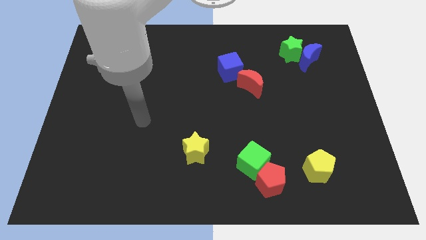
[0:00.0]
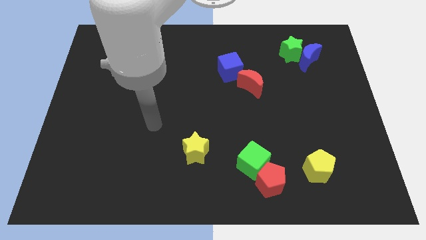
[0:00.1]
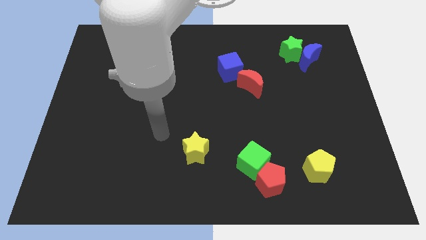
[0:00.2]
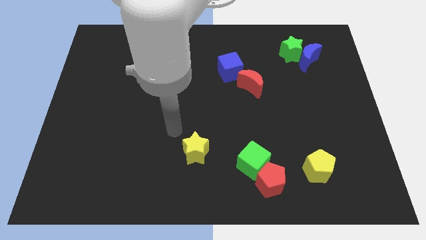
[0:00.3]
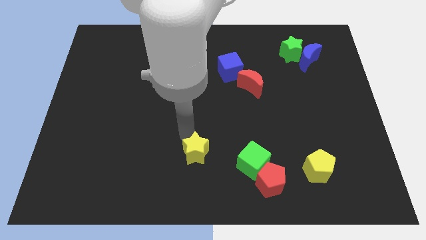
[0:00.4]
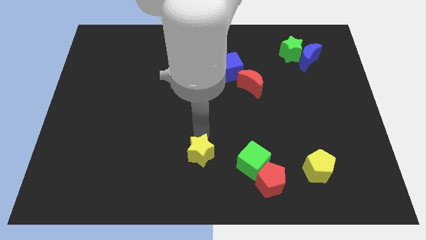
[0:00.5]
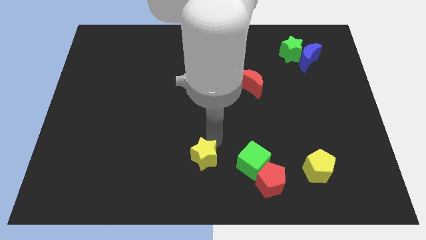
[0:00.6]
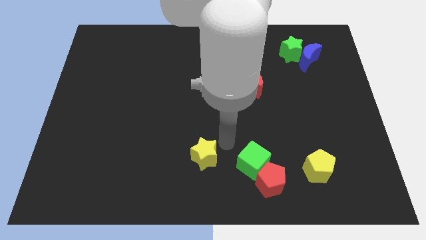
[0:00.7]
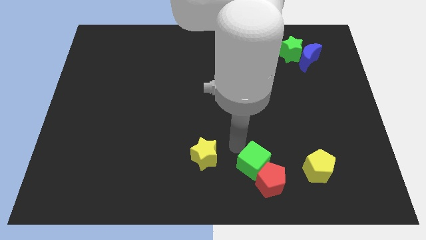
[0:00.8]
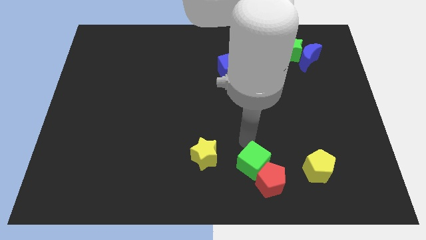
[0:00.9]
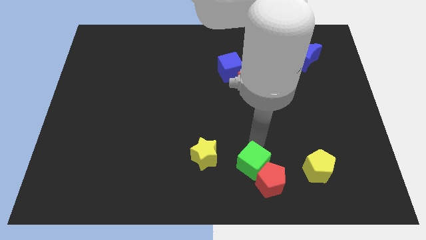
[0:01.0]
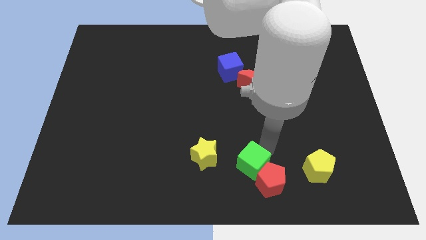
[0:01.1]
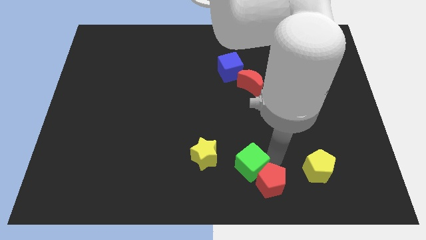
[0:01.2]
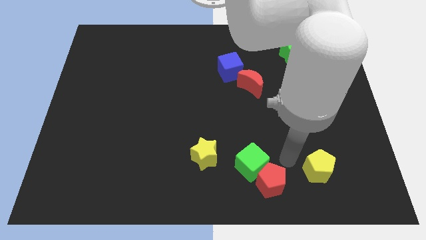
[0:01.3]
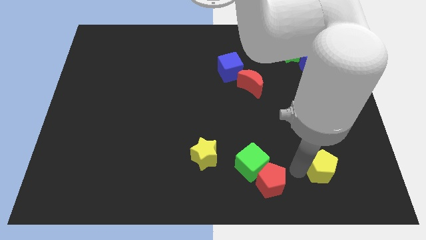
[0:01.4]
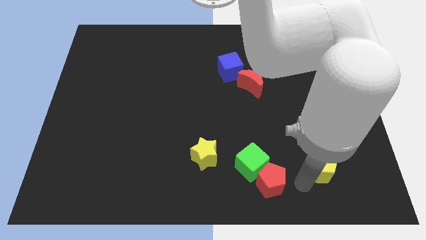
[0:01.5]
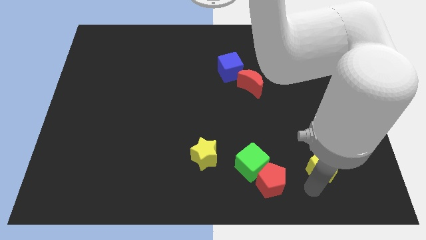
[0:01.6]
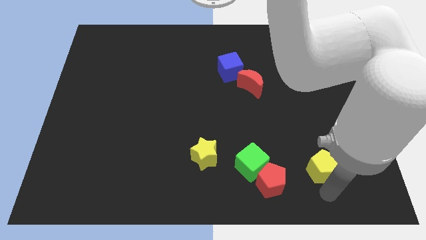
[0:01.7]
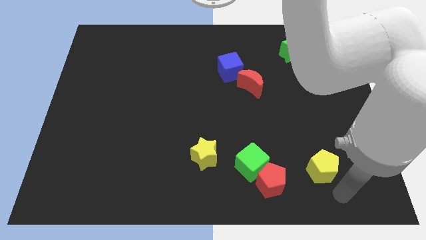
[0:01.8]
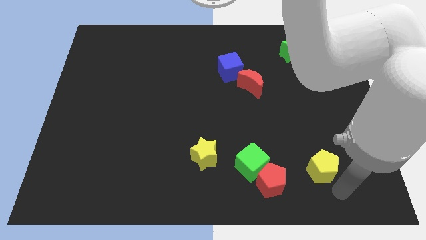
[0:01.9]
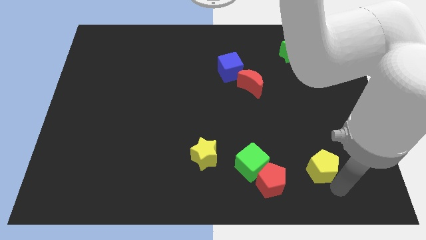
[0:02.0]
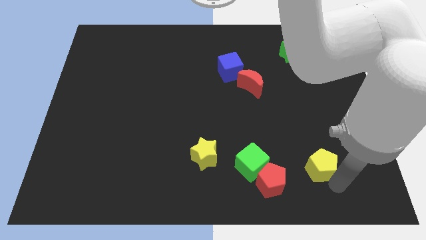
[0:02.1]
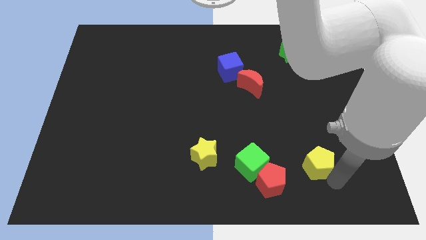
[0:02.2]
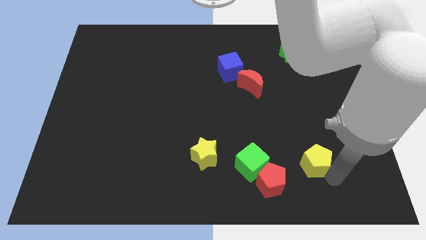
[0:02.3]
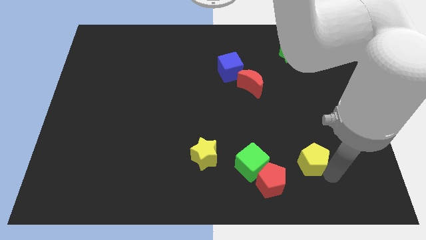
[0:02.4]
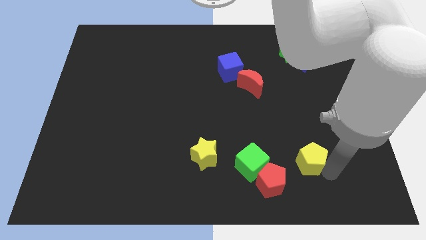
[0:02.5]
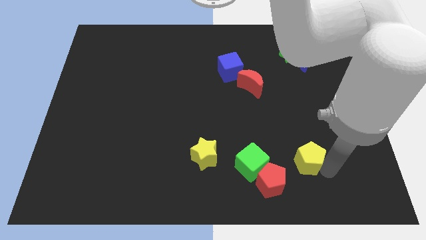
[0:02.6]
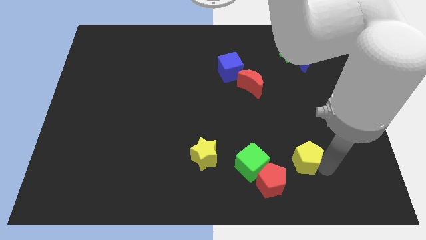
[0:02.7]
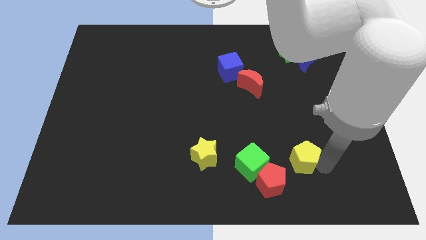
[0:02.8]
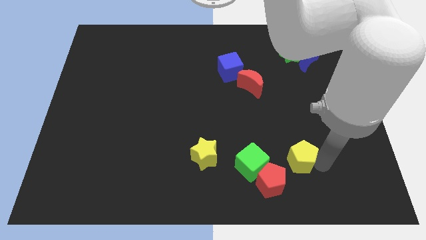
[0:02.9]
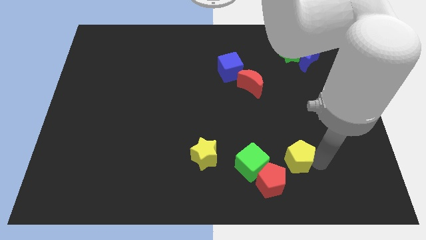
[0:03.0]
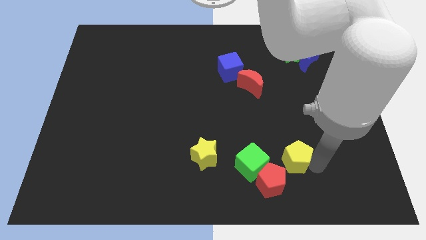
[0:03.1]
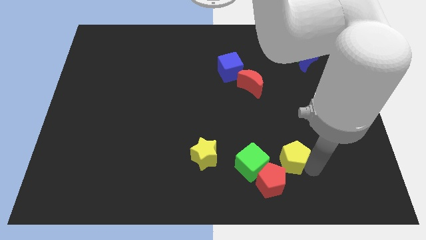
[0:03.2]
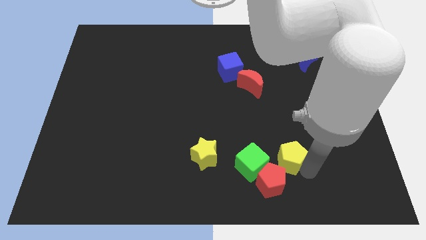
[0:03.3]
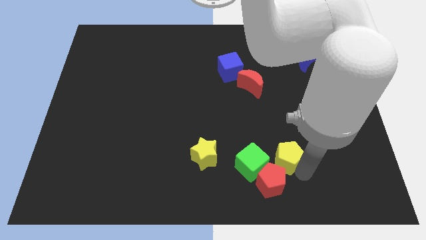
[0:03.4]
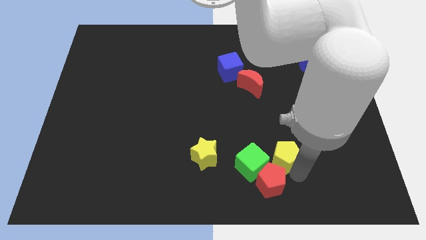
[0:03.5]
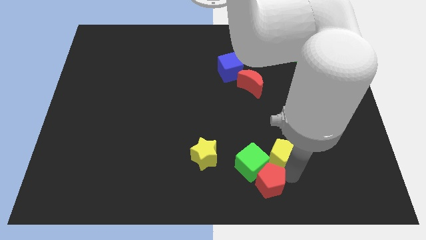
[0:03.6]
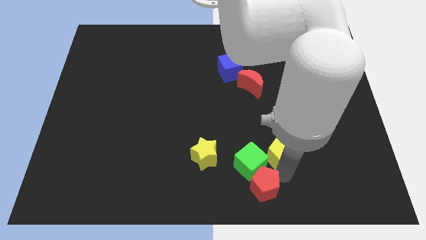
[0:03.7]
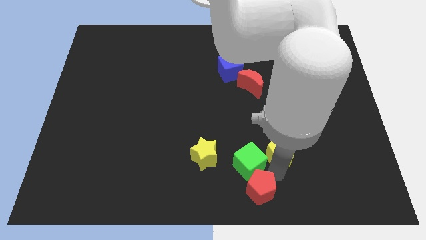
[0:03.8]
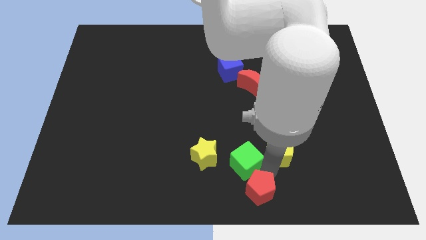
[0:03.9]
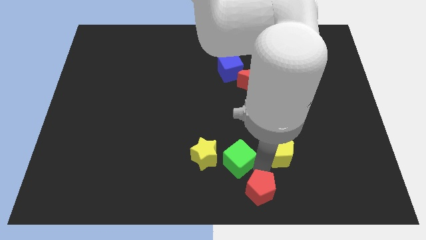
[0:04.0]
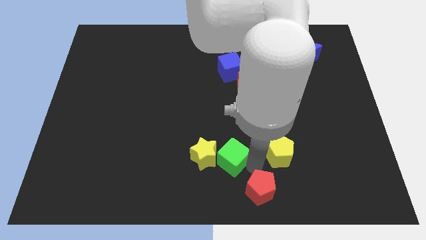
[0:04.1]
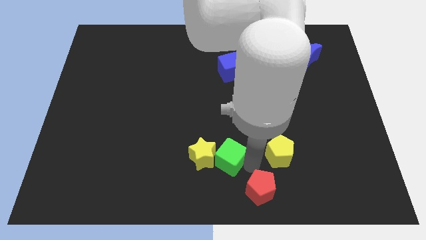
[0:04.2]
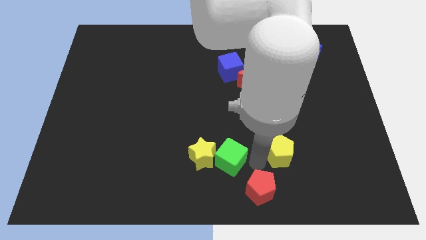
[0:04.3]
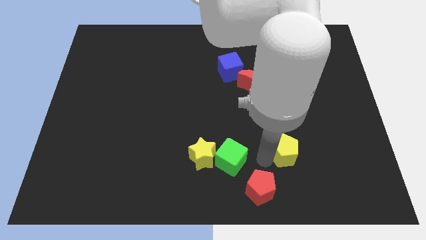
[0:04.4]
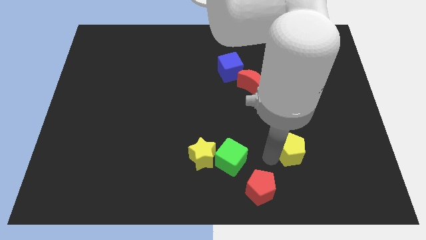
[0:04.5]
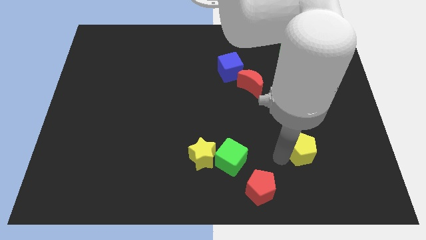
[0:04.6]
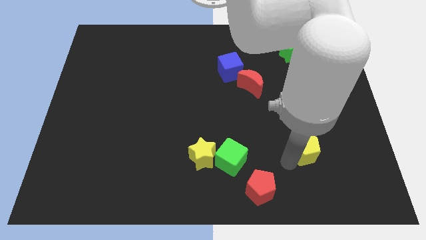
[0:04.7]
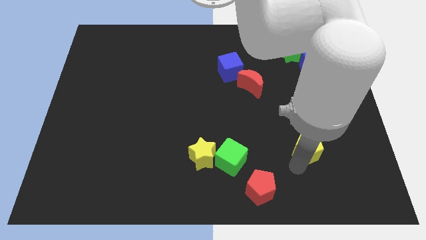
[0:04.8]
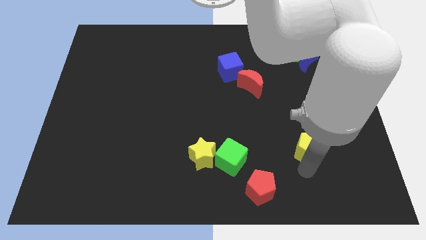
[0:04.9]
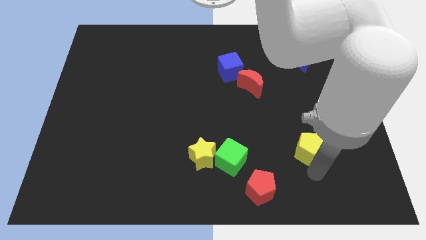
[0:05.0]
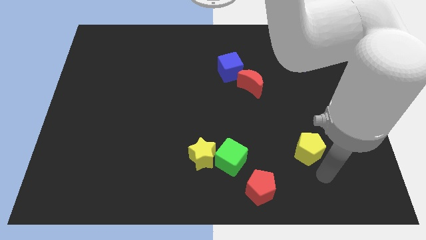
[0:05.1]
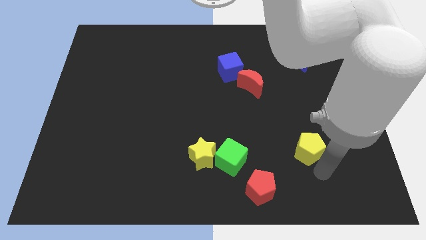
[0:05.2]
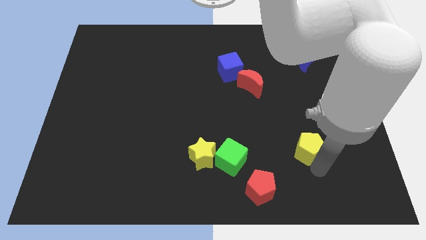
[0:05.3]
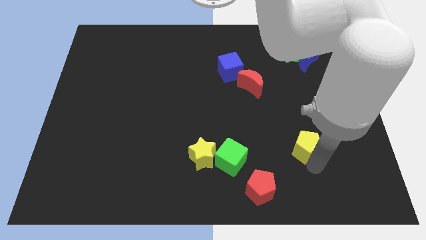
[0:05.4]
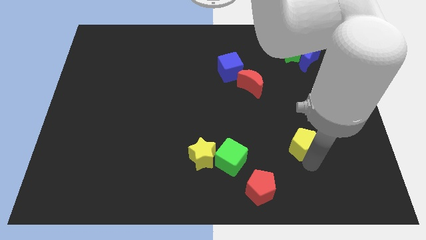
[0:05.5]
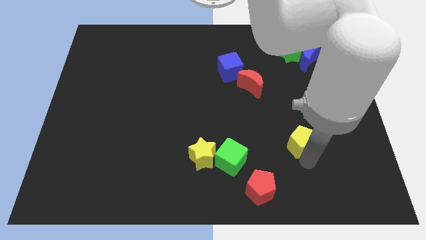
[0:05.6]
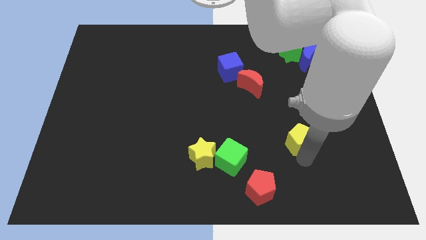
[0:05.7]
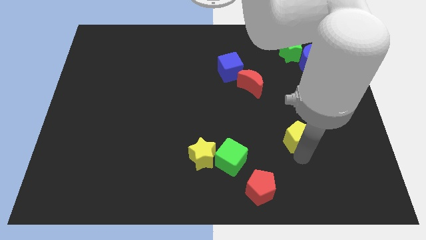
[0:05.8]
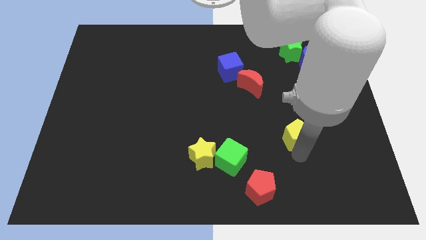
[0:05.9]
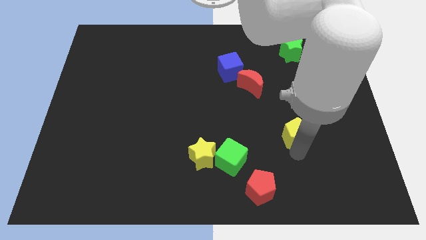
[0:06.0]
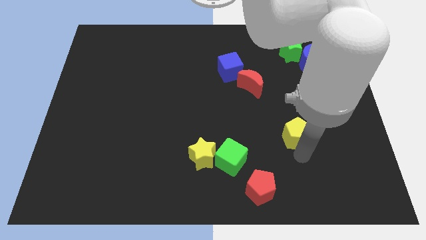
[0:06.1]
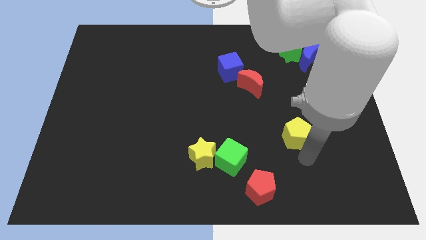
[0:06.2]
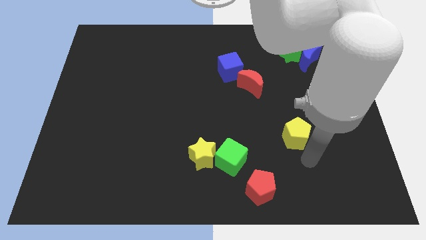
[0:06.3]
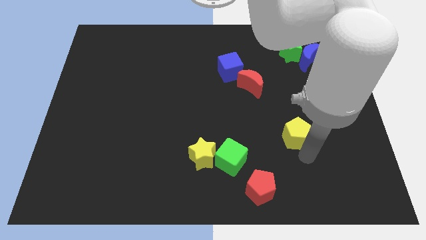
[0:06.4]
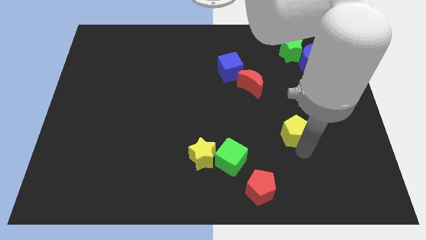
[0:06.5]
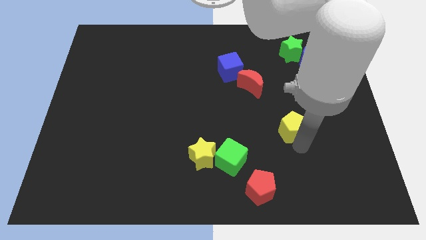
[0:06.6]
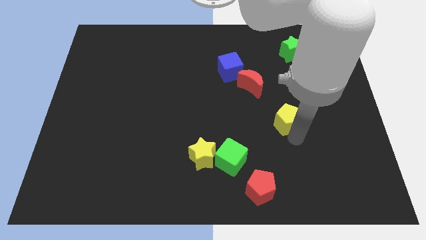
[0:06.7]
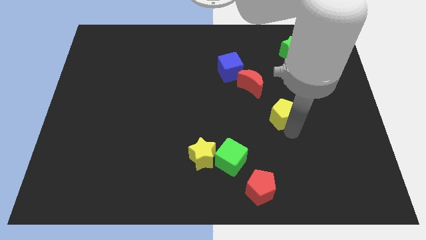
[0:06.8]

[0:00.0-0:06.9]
move the yellow pentagon diagonally down and to the right of the red moon
